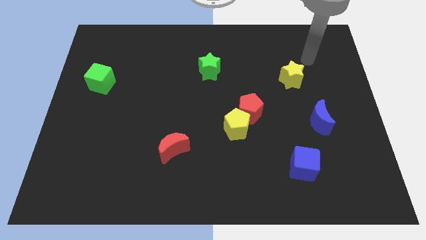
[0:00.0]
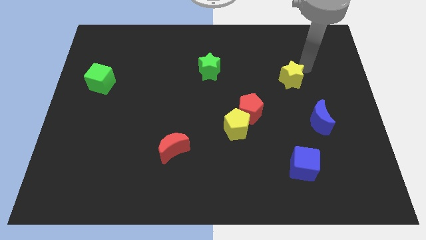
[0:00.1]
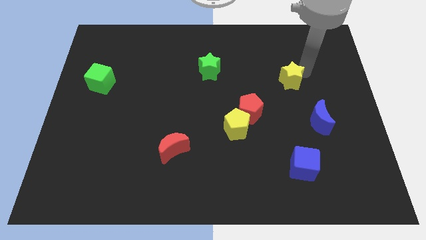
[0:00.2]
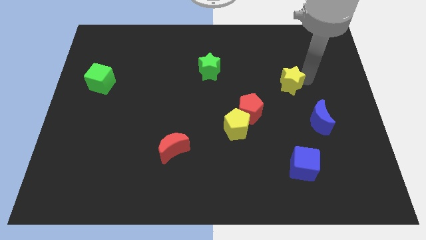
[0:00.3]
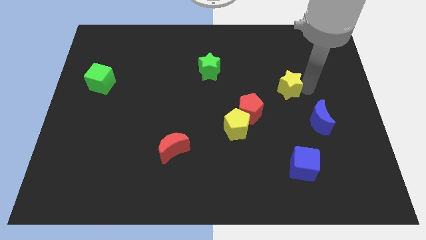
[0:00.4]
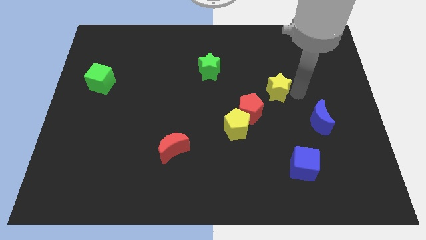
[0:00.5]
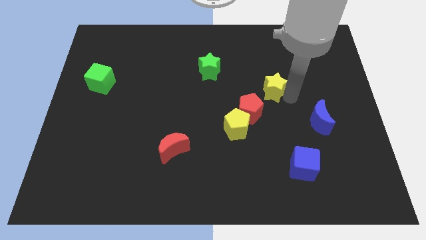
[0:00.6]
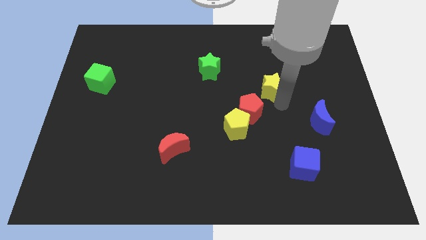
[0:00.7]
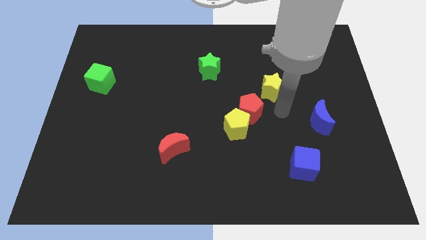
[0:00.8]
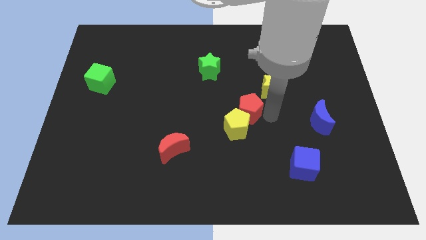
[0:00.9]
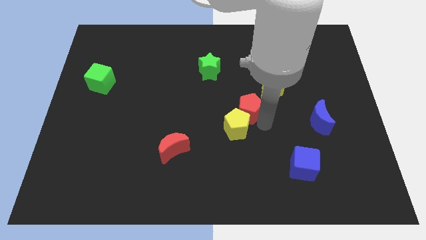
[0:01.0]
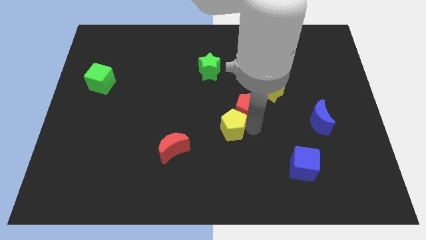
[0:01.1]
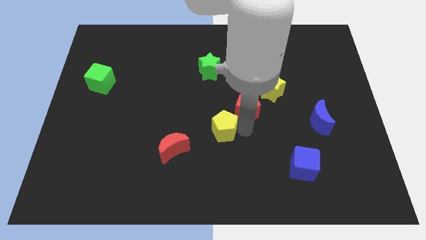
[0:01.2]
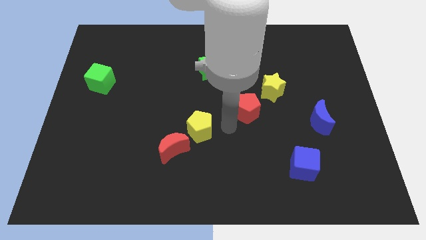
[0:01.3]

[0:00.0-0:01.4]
separate the red pentagon from the yellow pentagon

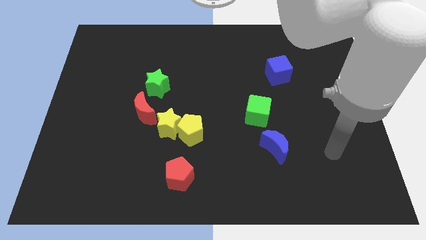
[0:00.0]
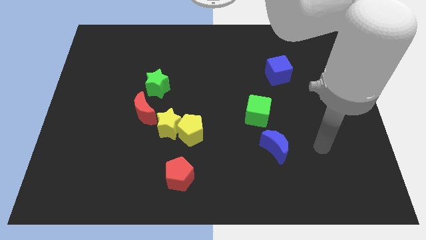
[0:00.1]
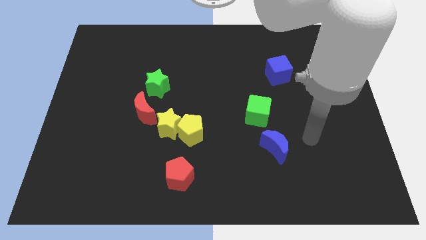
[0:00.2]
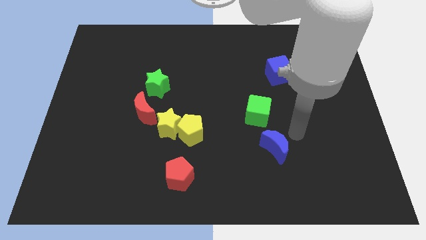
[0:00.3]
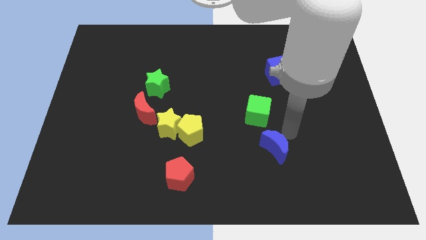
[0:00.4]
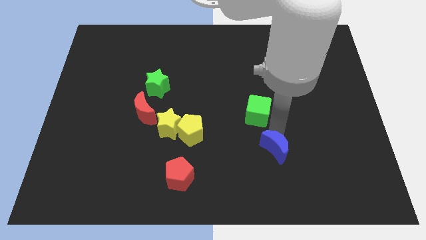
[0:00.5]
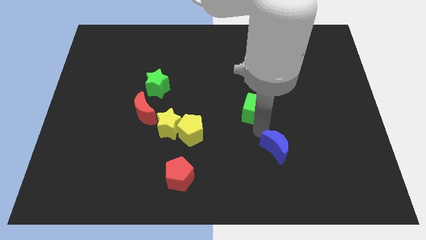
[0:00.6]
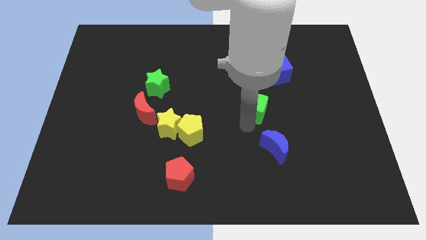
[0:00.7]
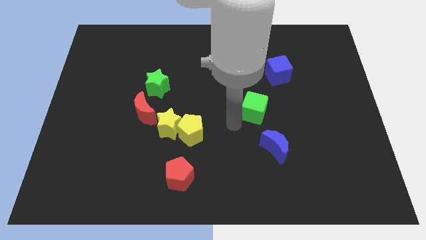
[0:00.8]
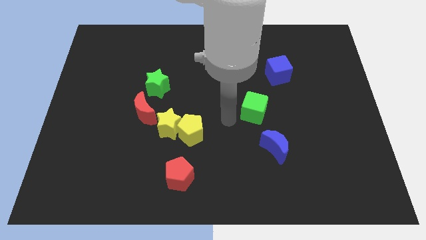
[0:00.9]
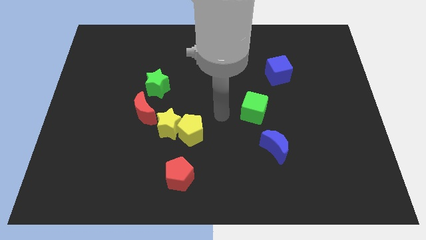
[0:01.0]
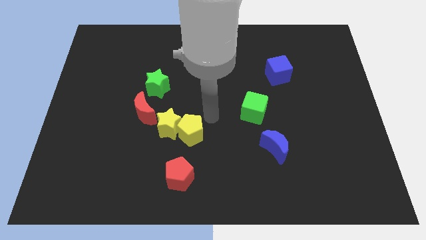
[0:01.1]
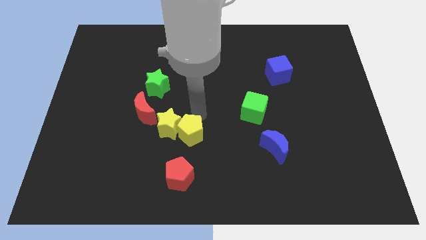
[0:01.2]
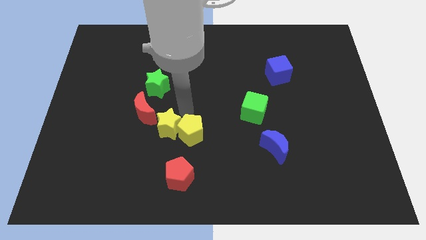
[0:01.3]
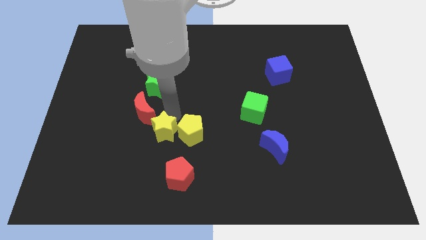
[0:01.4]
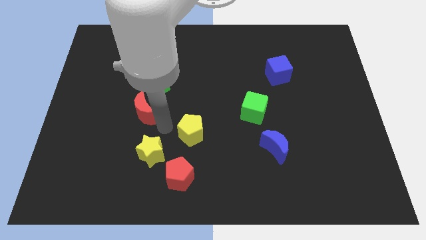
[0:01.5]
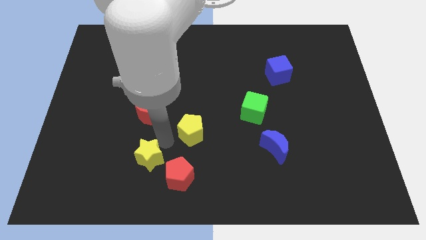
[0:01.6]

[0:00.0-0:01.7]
separate the yellow pentagon from the yellow star

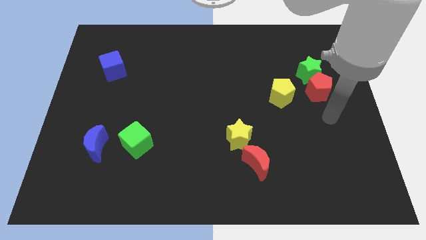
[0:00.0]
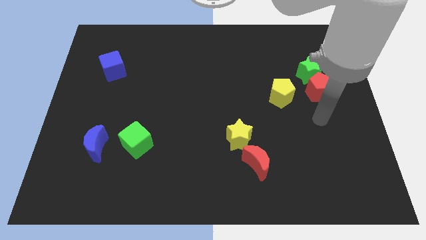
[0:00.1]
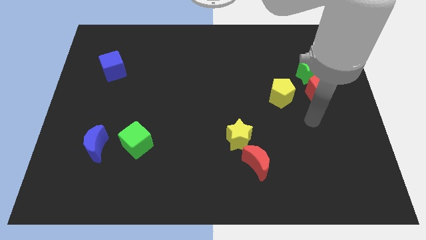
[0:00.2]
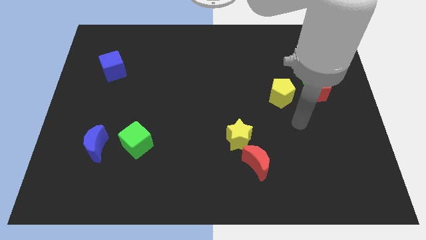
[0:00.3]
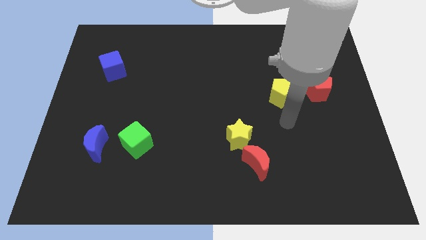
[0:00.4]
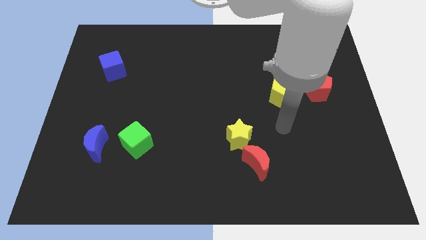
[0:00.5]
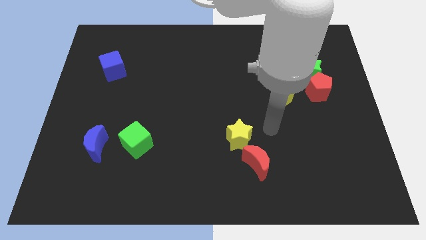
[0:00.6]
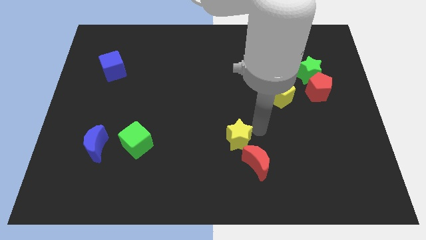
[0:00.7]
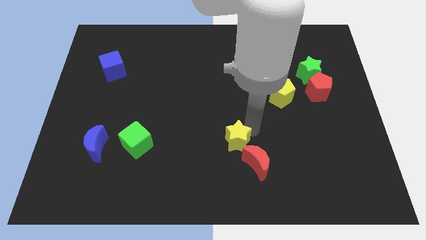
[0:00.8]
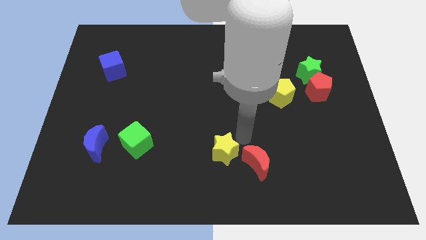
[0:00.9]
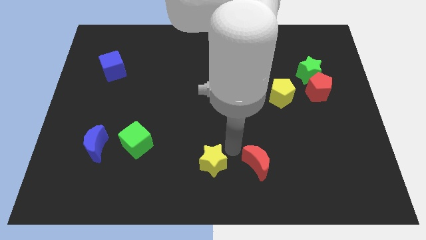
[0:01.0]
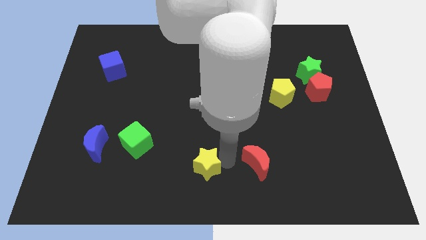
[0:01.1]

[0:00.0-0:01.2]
pull the red moon apart from the yellow star

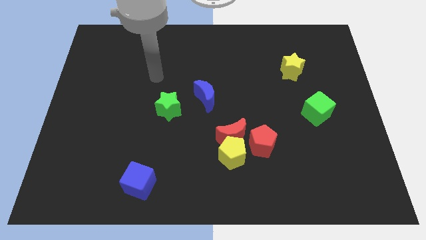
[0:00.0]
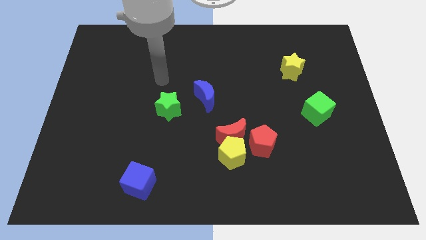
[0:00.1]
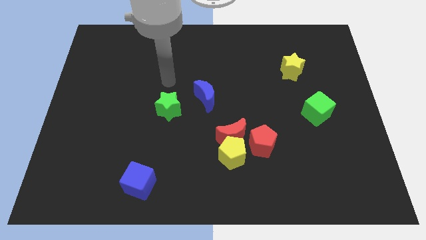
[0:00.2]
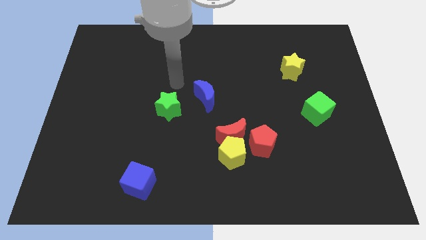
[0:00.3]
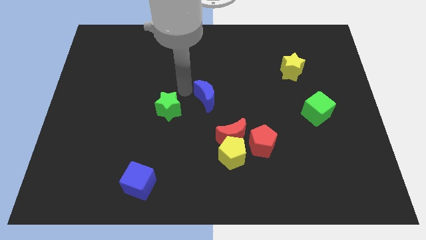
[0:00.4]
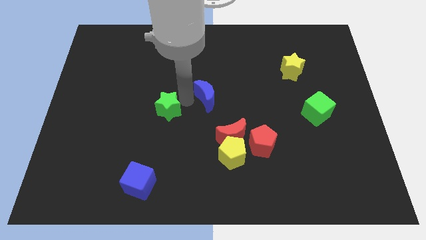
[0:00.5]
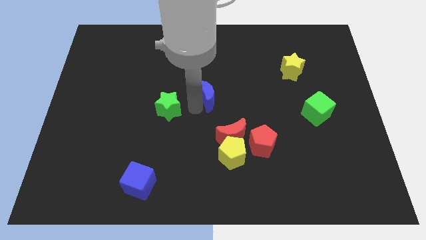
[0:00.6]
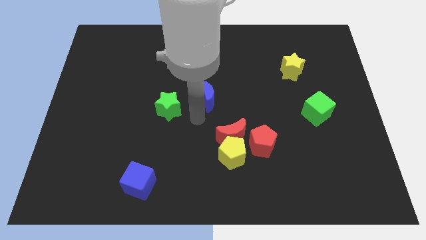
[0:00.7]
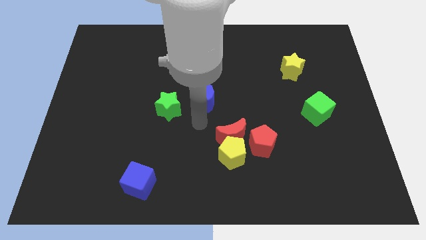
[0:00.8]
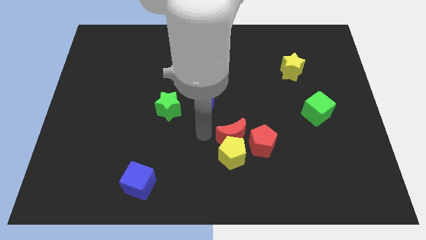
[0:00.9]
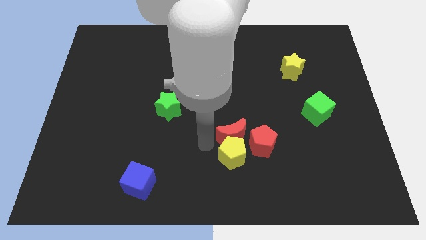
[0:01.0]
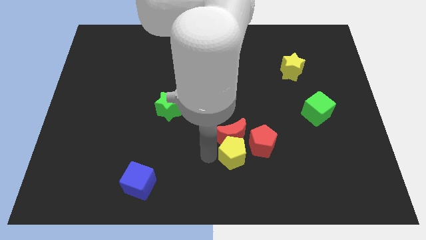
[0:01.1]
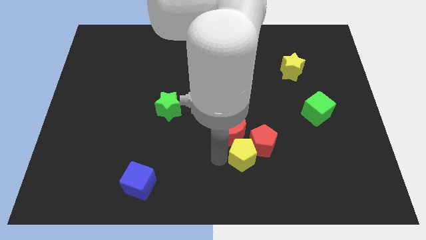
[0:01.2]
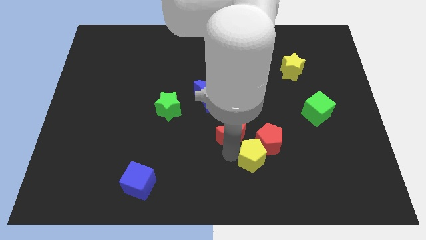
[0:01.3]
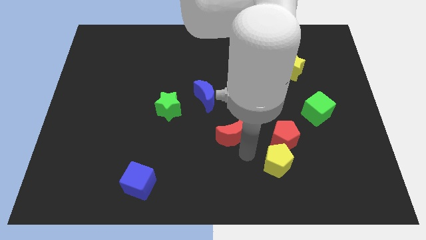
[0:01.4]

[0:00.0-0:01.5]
pull the red moon apart from the yellow pentagon and red pentagon

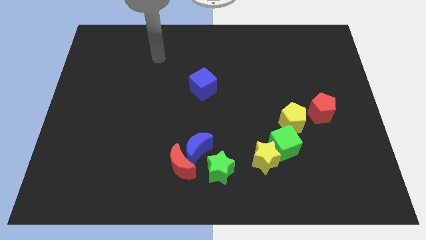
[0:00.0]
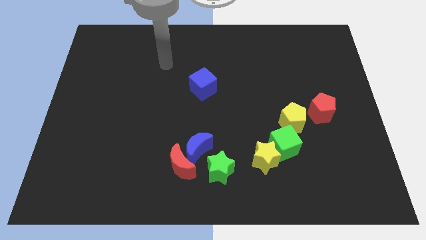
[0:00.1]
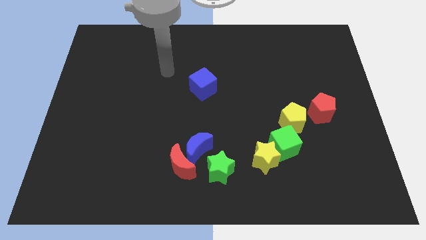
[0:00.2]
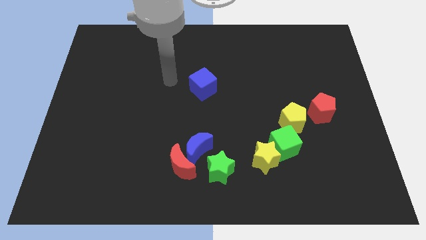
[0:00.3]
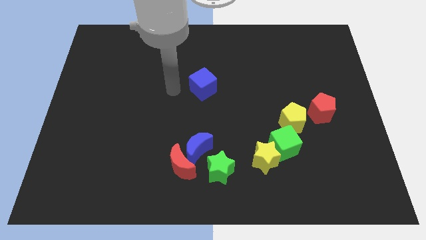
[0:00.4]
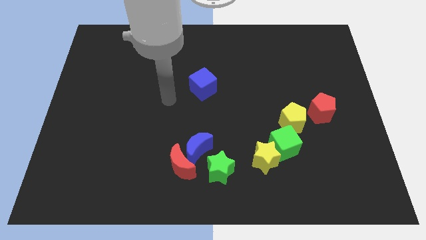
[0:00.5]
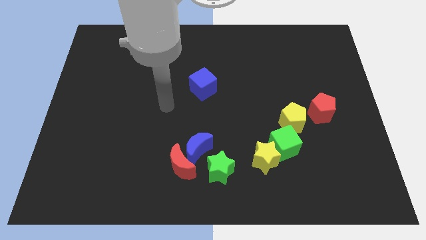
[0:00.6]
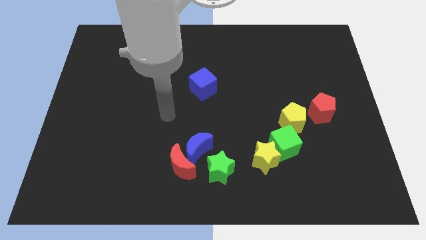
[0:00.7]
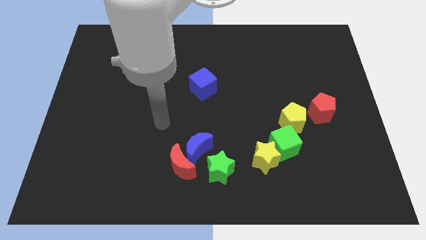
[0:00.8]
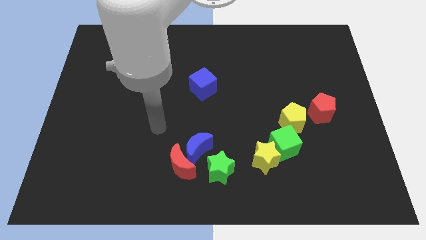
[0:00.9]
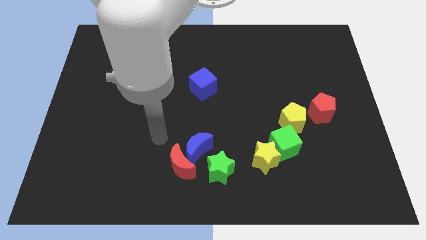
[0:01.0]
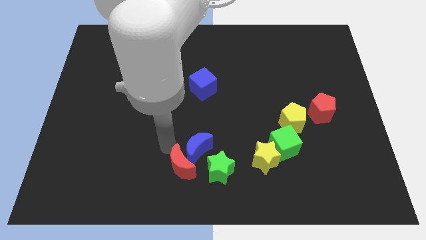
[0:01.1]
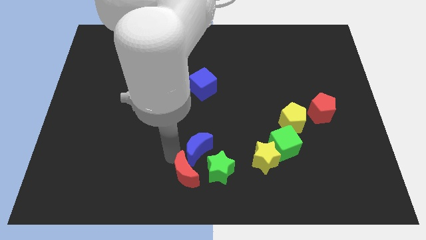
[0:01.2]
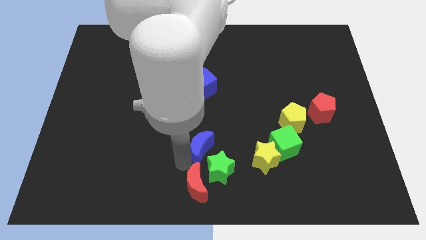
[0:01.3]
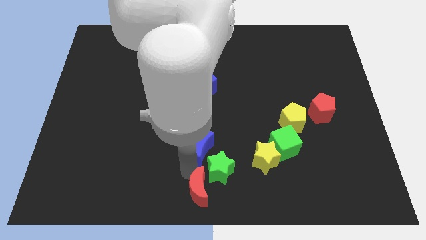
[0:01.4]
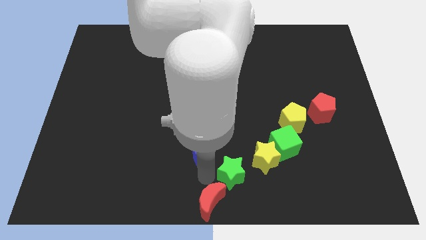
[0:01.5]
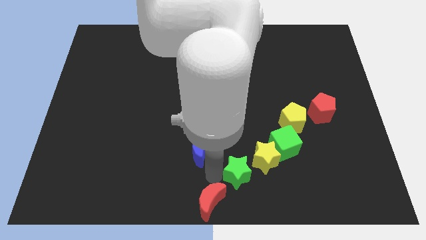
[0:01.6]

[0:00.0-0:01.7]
separate the blue moon from the red moon and green star

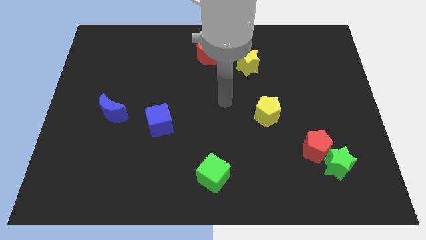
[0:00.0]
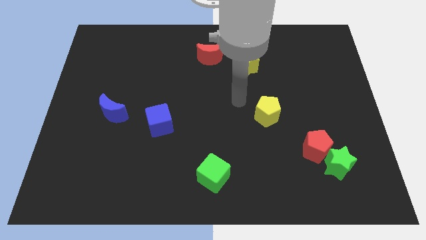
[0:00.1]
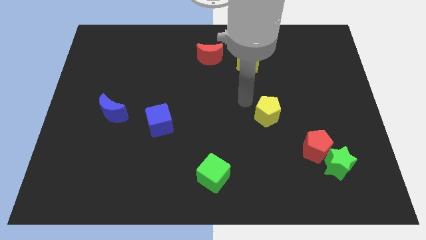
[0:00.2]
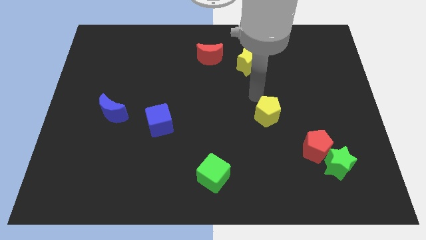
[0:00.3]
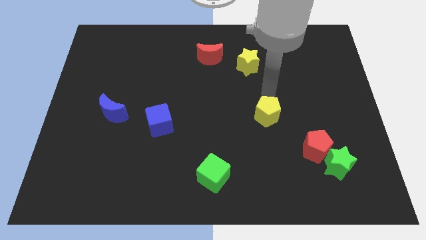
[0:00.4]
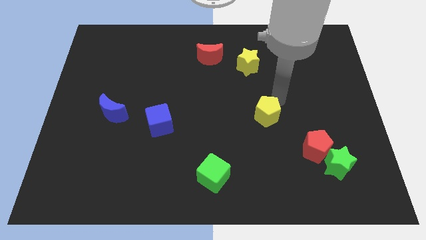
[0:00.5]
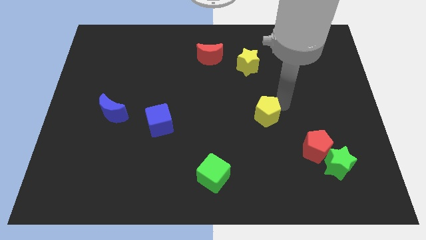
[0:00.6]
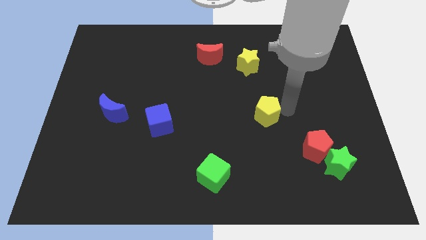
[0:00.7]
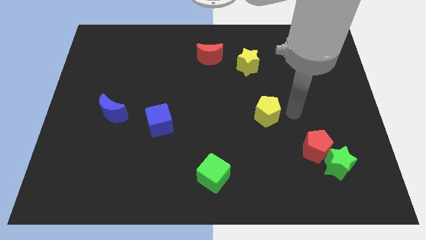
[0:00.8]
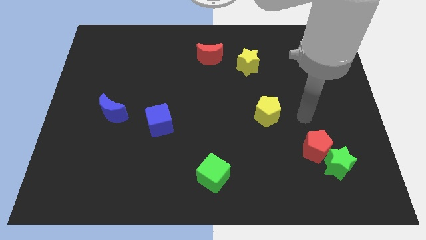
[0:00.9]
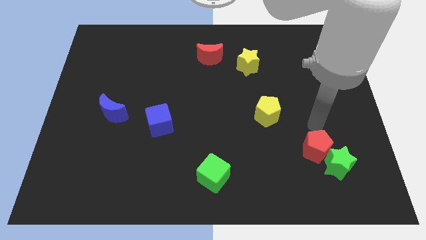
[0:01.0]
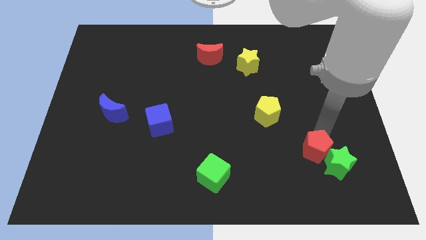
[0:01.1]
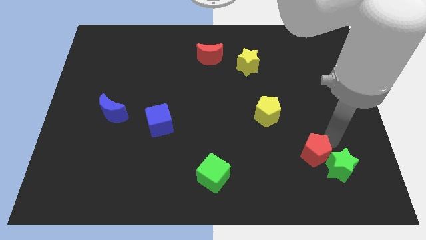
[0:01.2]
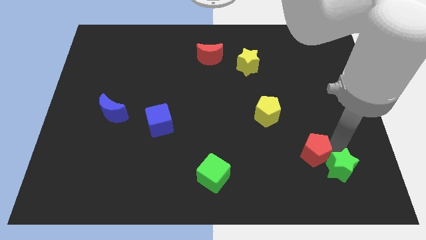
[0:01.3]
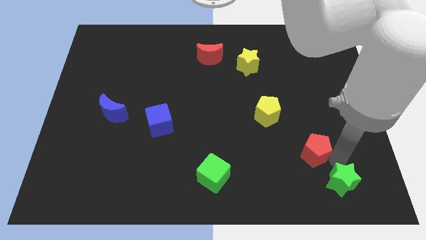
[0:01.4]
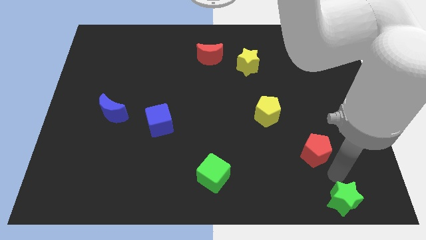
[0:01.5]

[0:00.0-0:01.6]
pull the red pentagon apart from the green star

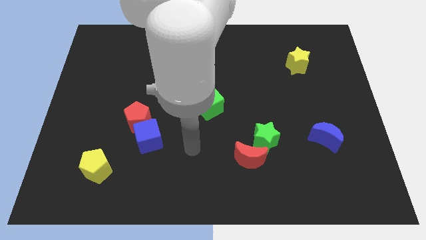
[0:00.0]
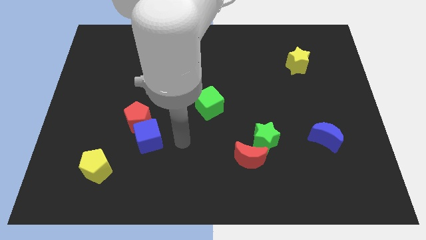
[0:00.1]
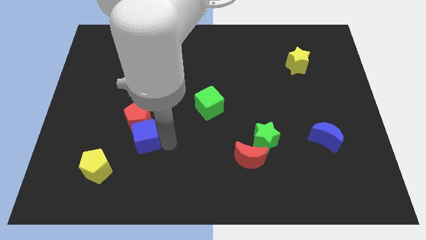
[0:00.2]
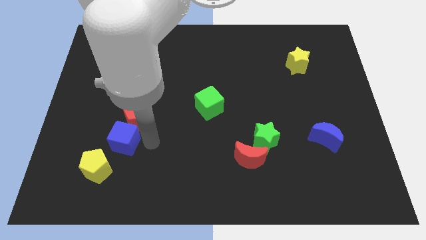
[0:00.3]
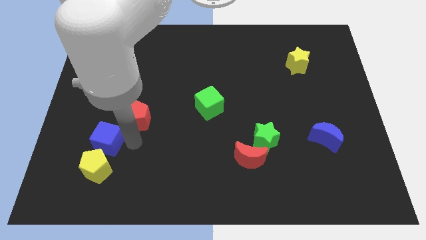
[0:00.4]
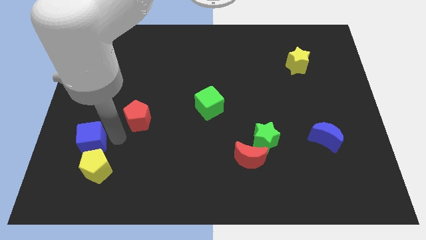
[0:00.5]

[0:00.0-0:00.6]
separate the red pentagon from the blue cube
